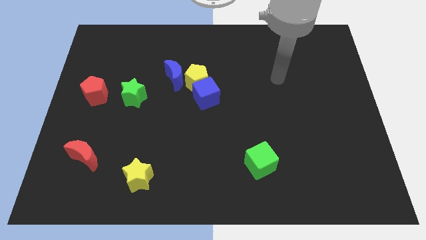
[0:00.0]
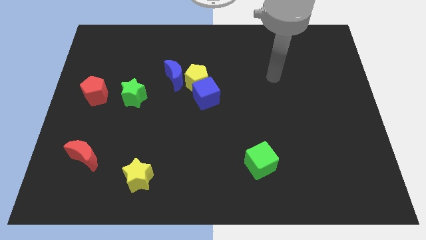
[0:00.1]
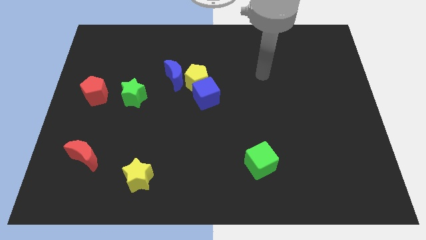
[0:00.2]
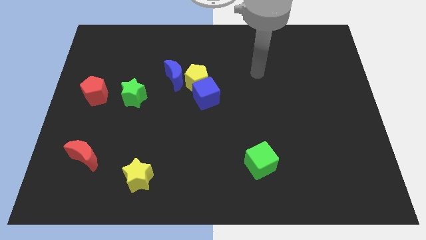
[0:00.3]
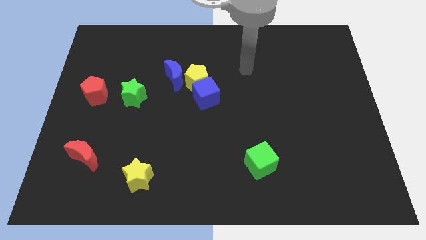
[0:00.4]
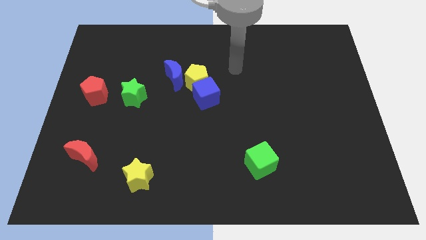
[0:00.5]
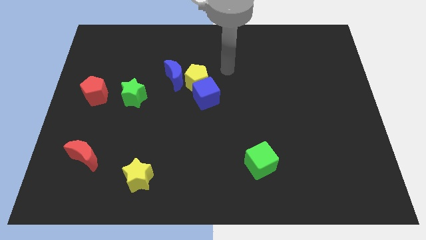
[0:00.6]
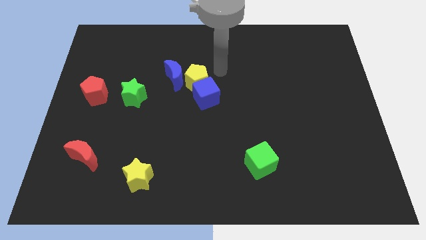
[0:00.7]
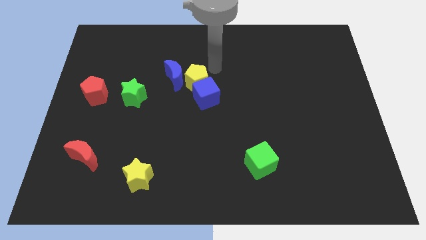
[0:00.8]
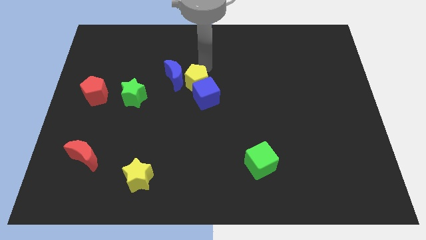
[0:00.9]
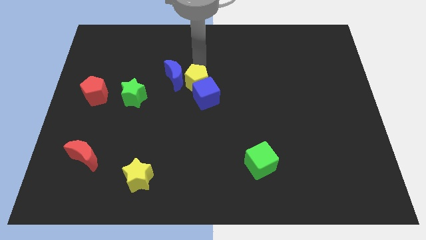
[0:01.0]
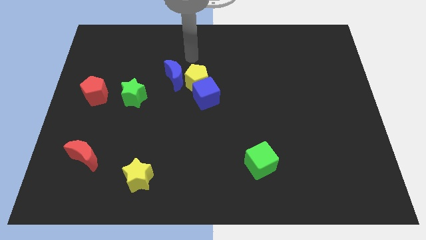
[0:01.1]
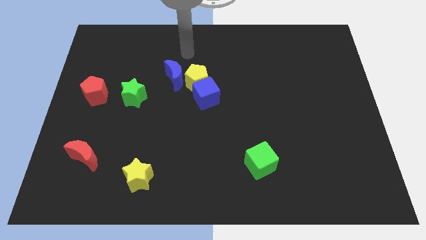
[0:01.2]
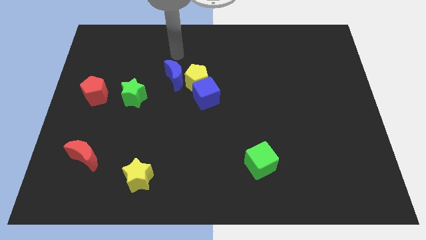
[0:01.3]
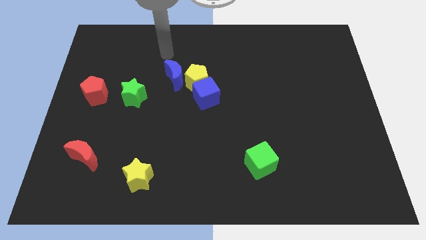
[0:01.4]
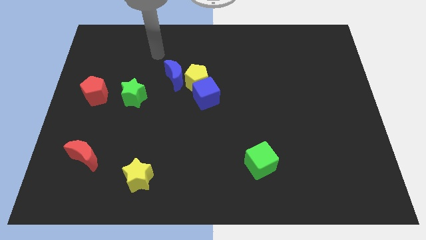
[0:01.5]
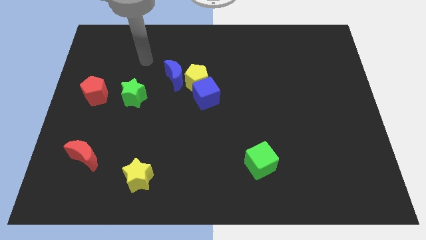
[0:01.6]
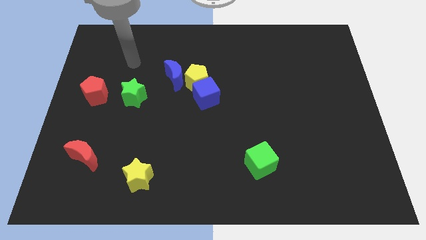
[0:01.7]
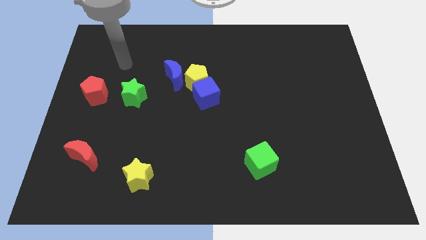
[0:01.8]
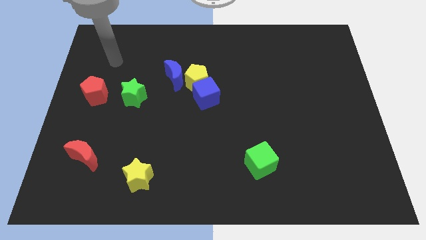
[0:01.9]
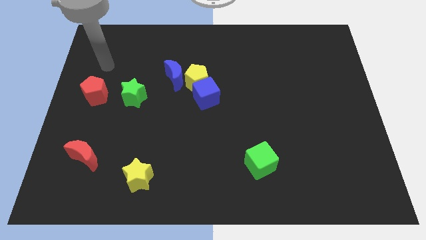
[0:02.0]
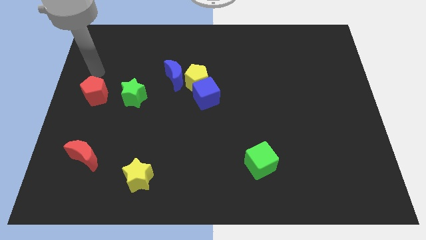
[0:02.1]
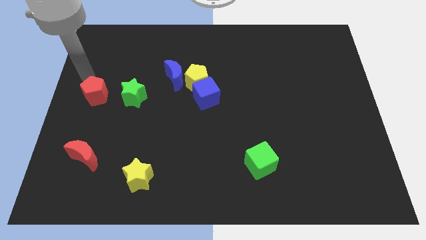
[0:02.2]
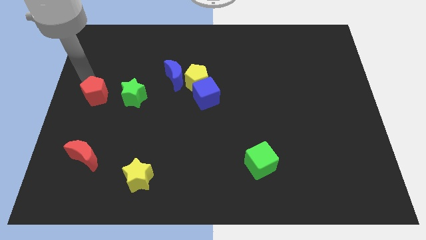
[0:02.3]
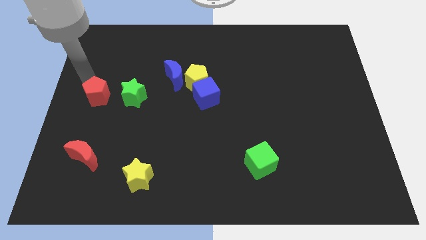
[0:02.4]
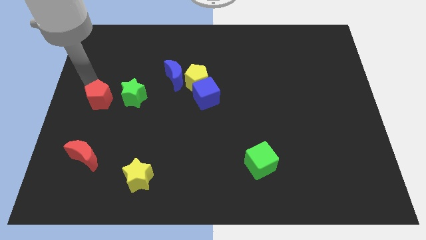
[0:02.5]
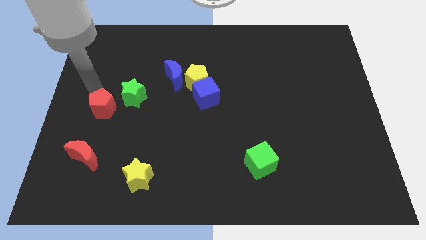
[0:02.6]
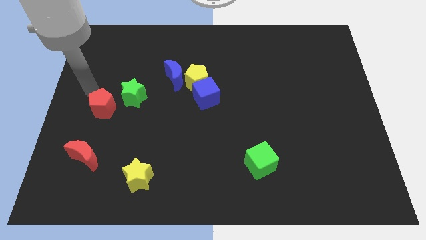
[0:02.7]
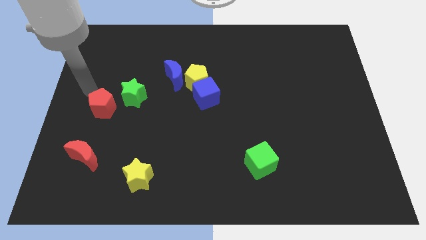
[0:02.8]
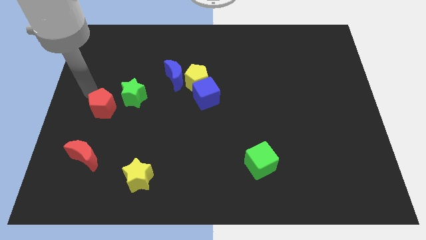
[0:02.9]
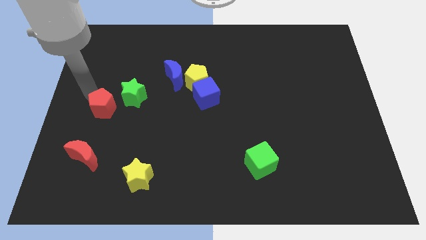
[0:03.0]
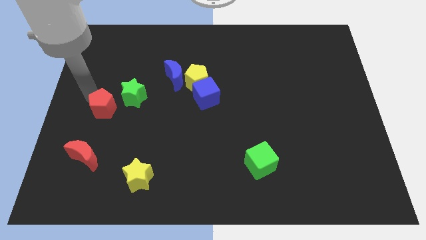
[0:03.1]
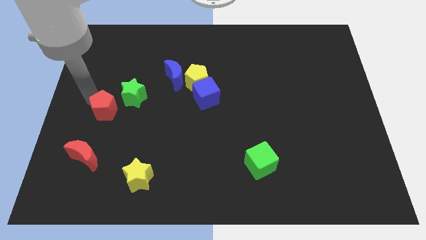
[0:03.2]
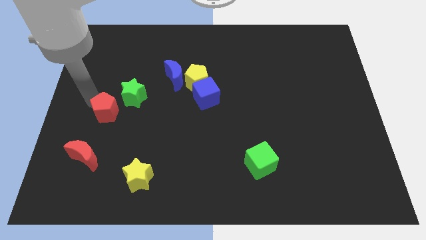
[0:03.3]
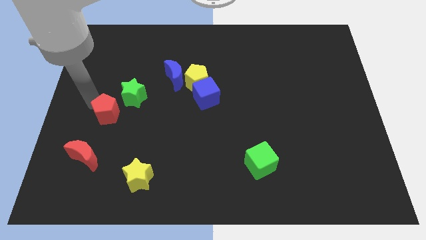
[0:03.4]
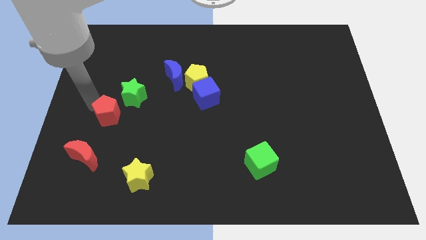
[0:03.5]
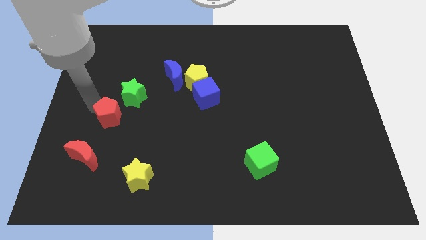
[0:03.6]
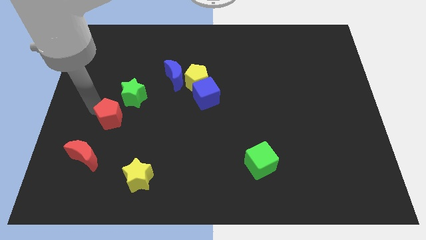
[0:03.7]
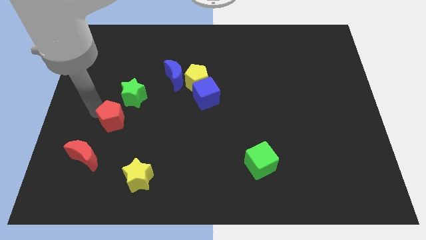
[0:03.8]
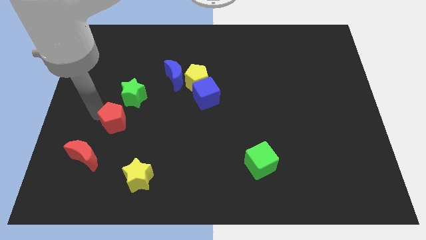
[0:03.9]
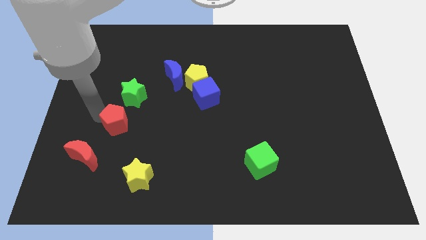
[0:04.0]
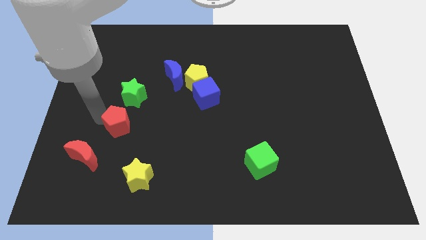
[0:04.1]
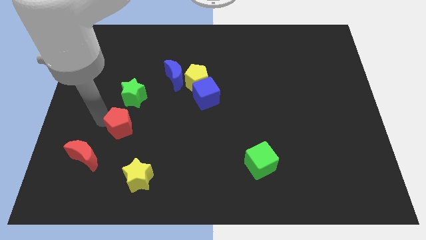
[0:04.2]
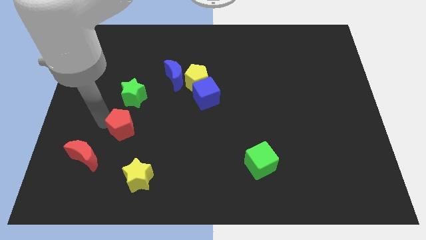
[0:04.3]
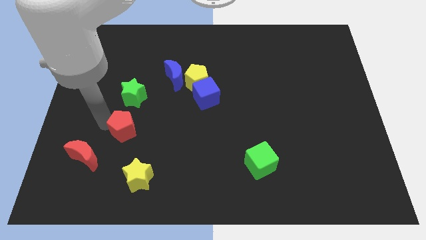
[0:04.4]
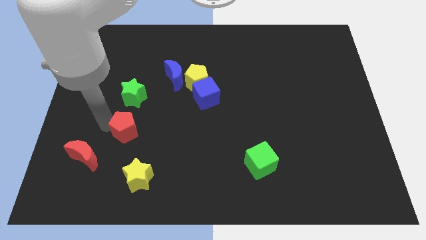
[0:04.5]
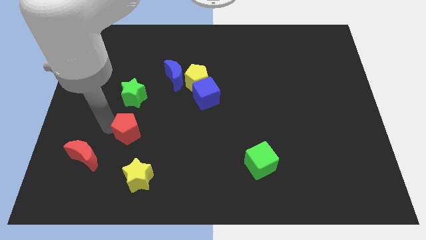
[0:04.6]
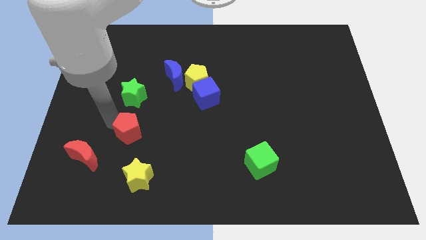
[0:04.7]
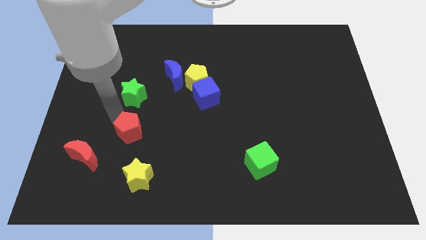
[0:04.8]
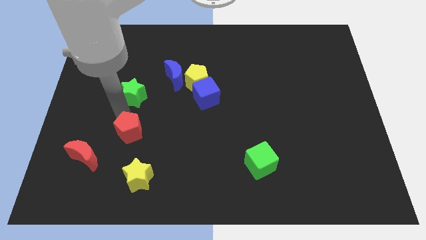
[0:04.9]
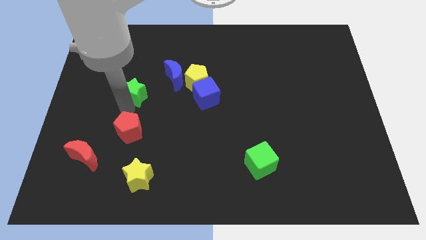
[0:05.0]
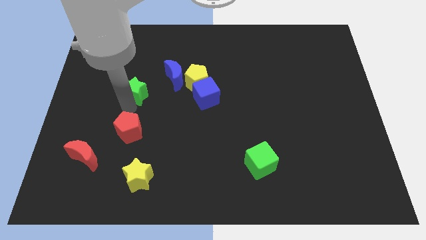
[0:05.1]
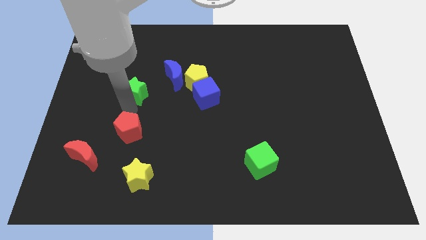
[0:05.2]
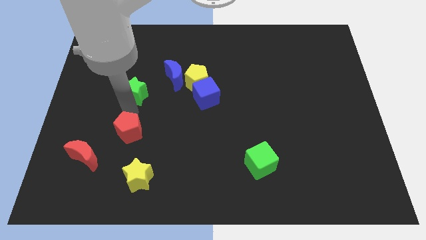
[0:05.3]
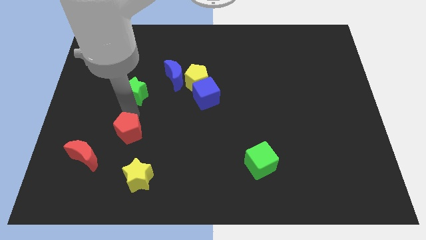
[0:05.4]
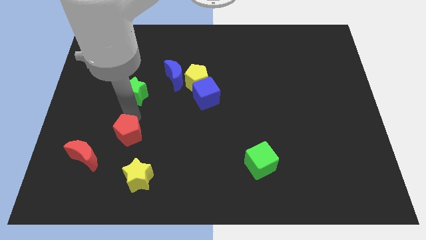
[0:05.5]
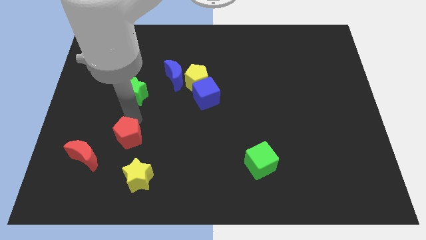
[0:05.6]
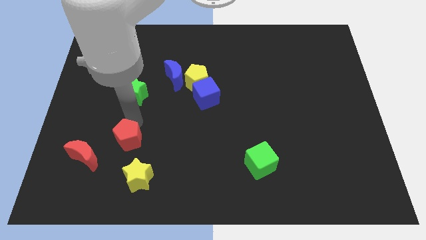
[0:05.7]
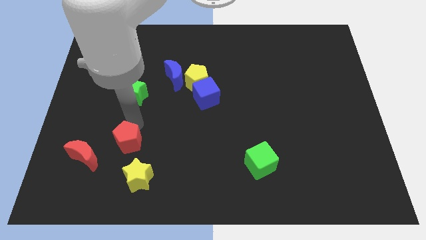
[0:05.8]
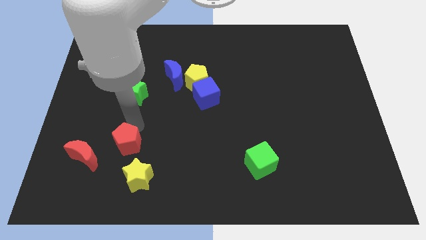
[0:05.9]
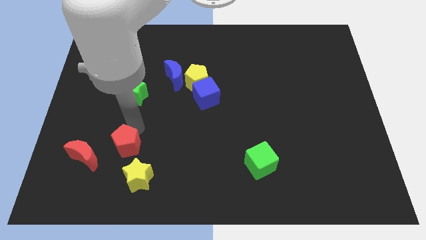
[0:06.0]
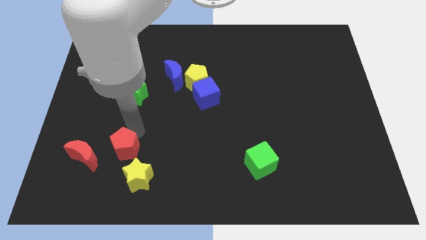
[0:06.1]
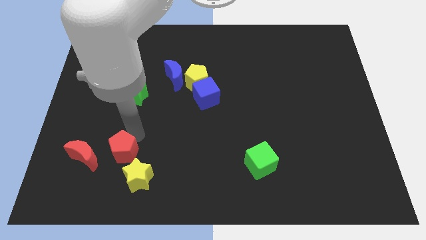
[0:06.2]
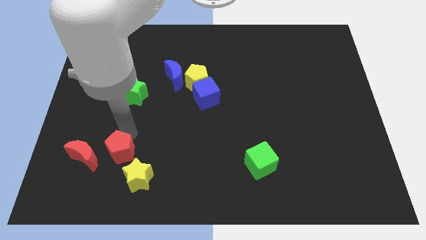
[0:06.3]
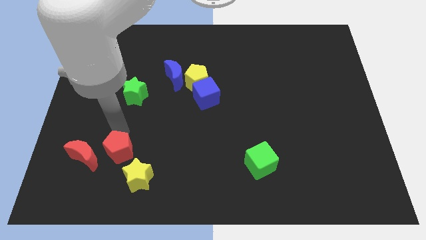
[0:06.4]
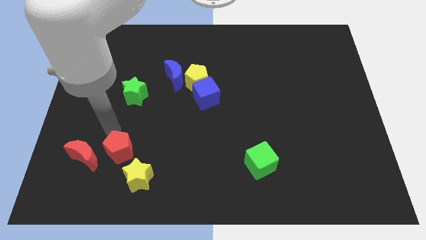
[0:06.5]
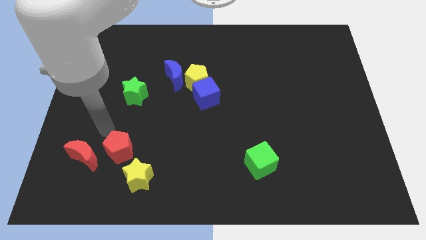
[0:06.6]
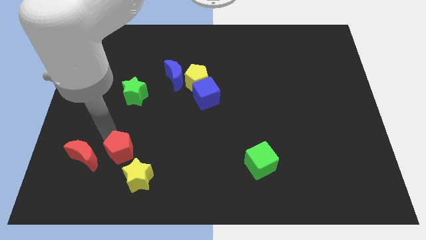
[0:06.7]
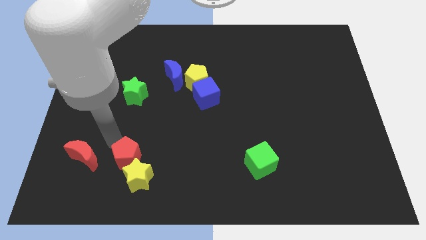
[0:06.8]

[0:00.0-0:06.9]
move the red pentagon towards the yellow star
